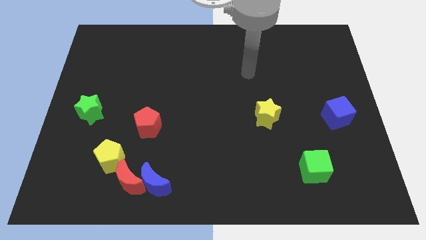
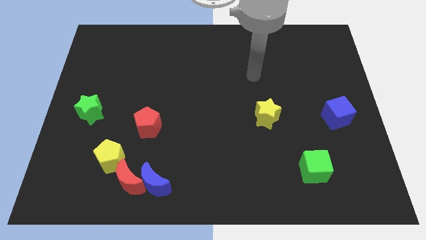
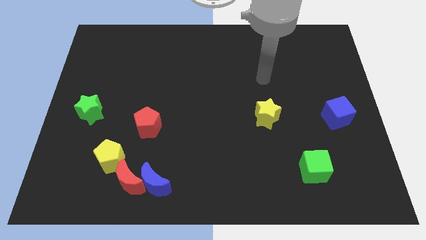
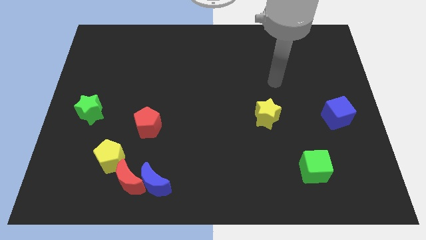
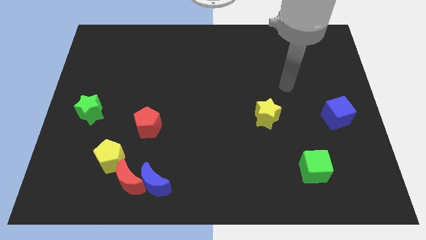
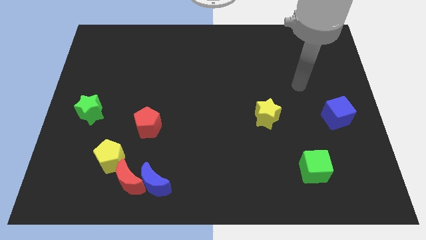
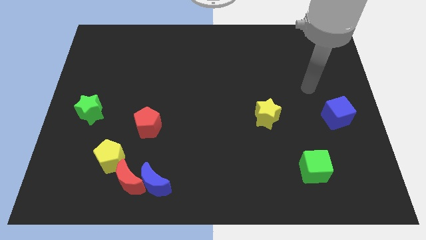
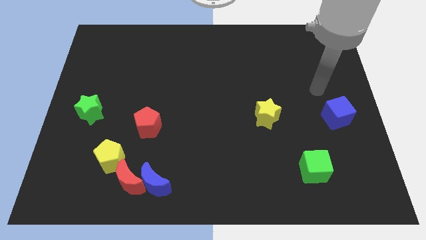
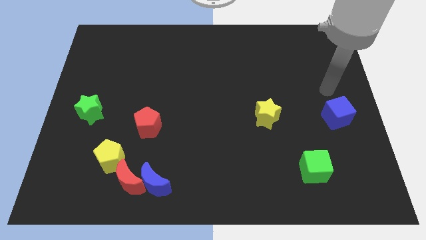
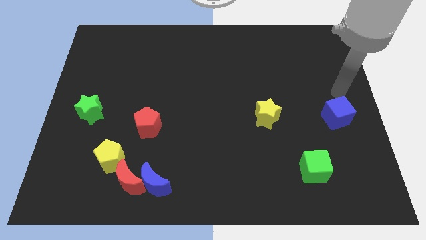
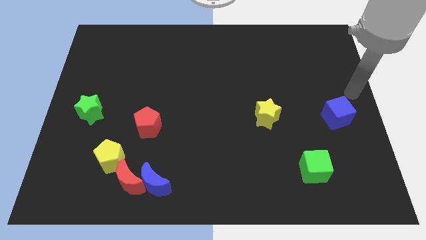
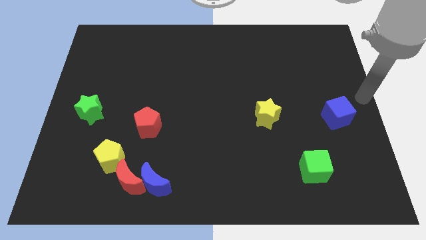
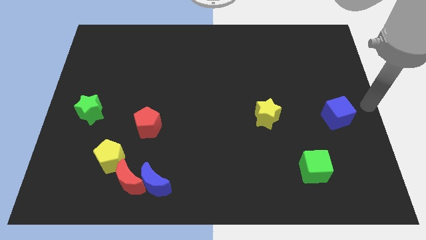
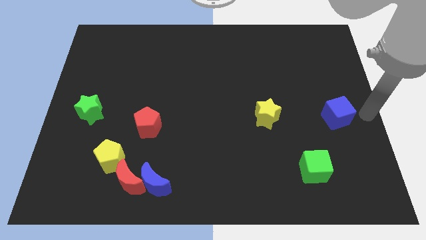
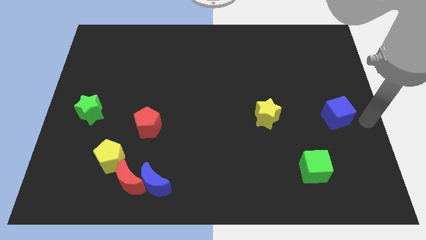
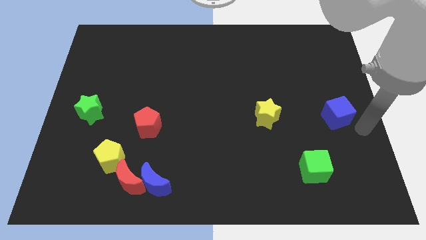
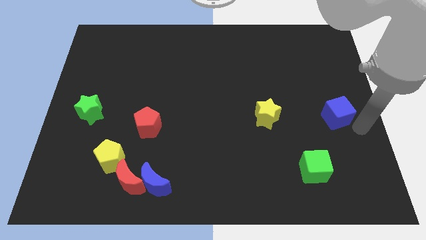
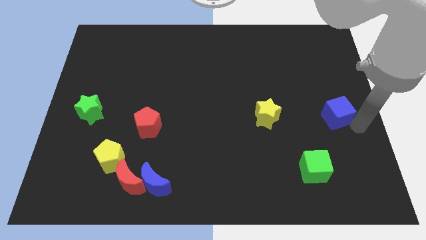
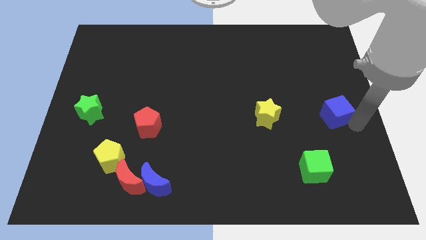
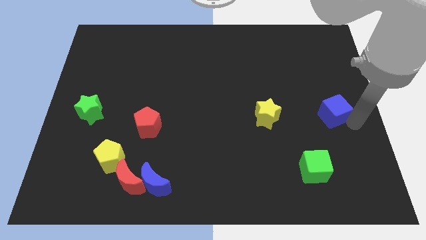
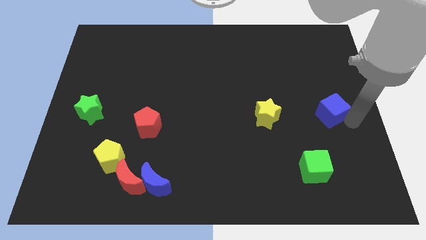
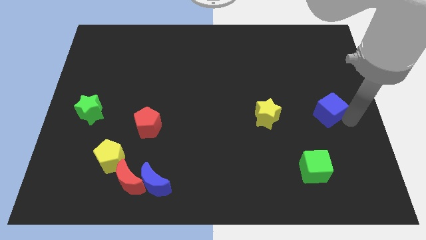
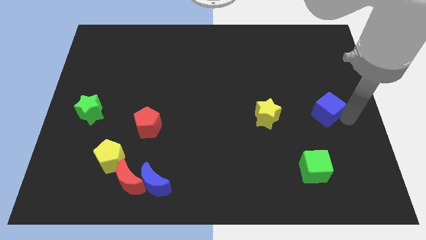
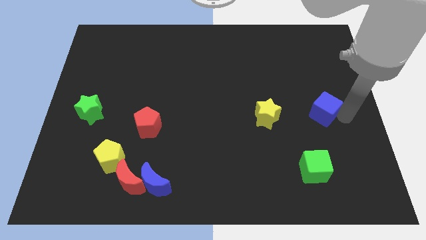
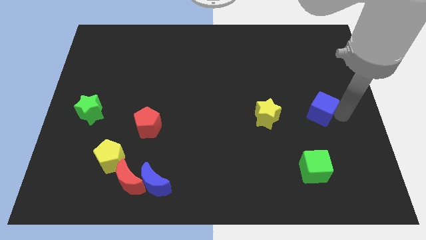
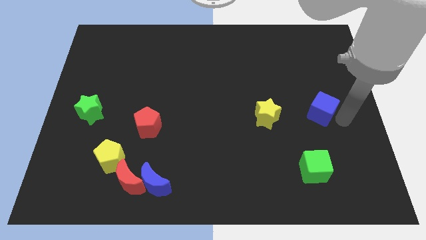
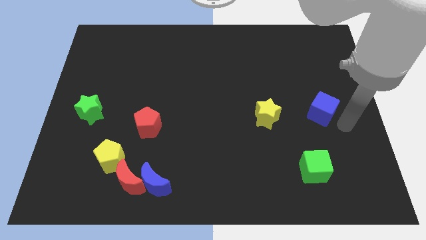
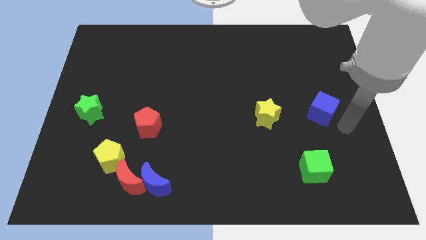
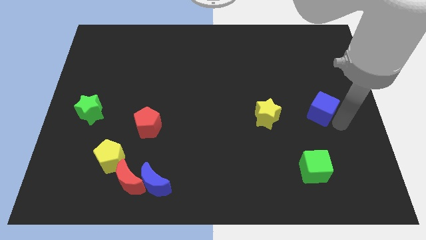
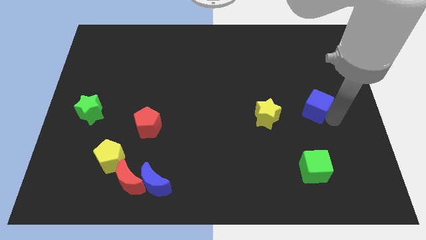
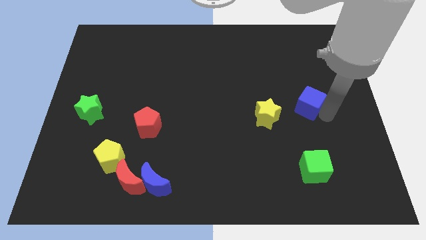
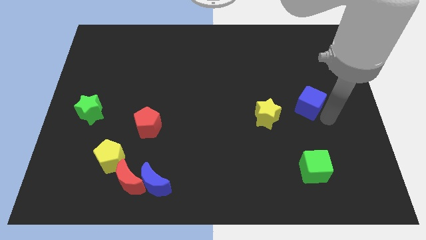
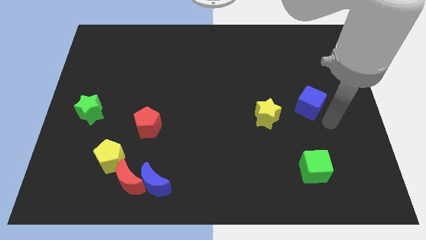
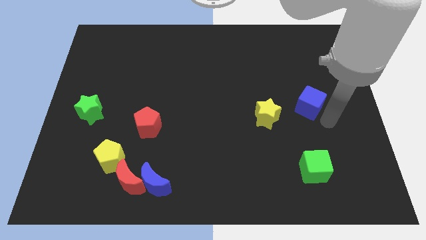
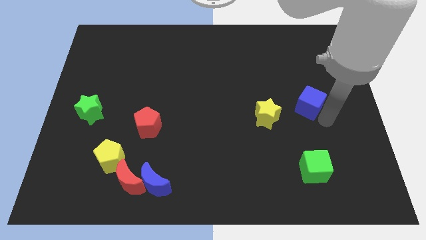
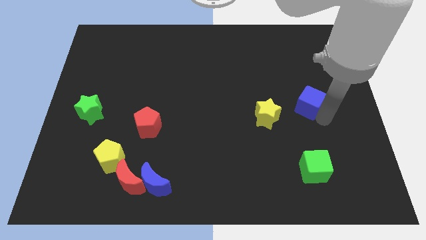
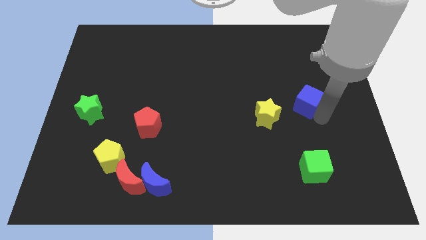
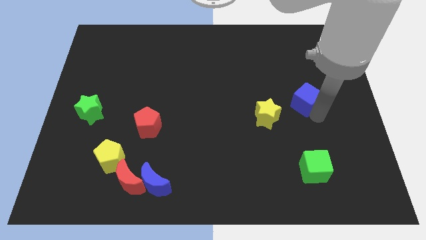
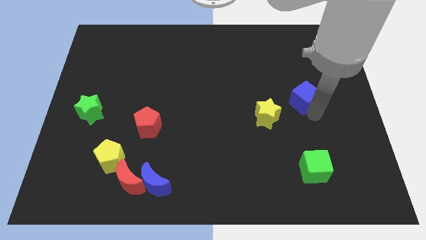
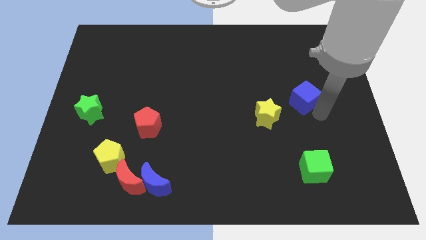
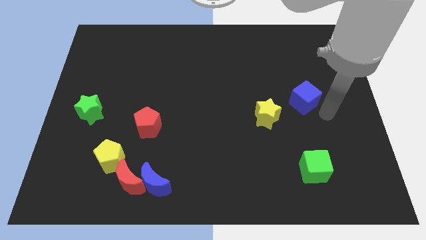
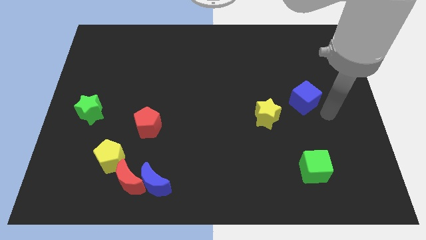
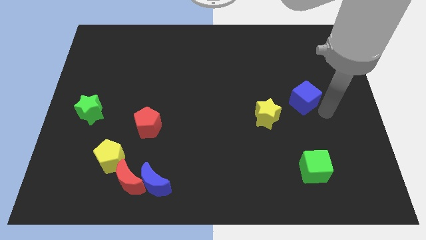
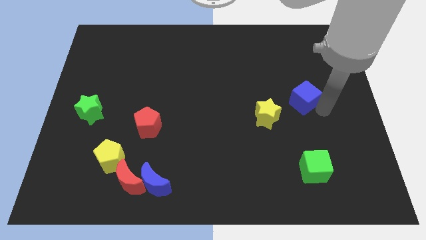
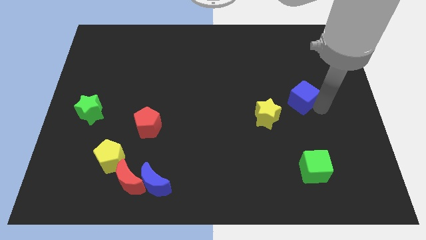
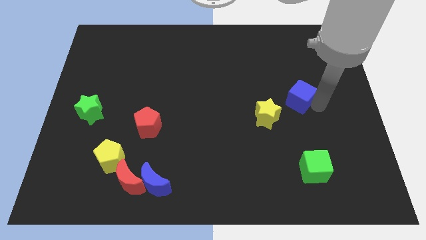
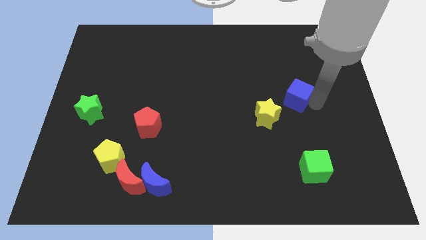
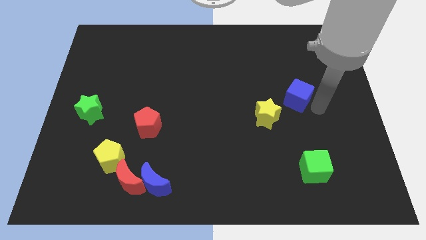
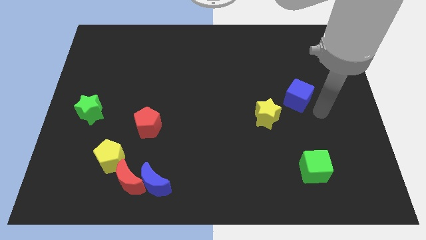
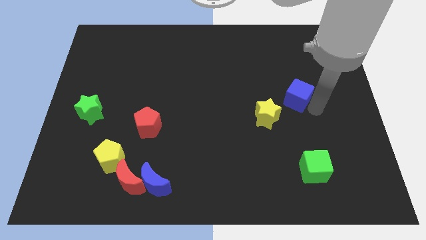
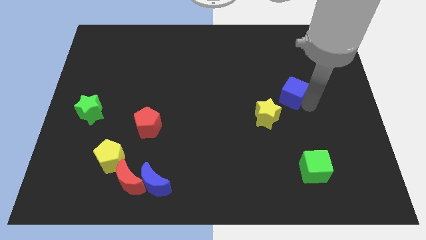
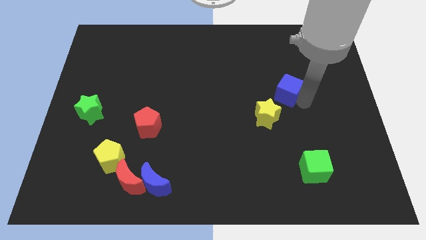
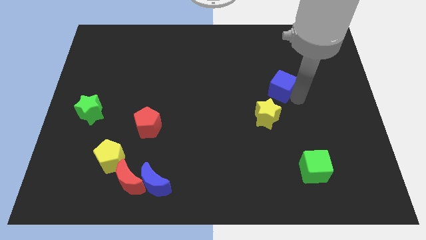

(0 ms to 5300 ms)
move the blue cube to the top side of the yellow star

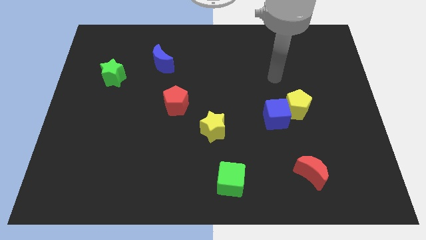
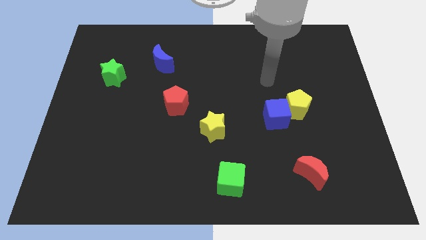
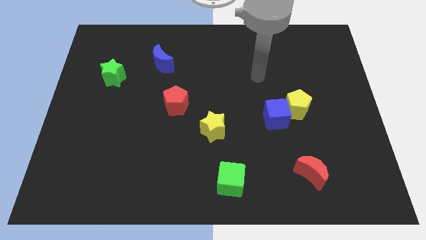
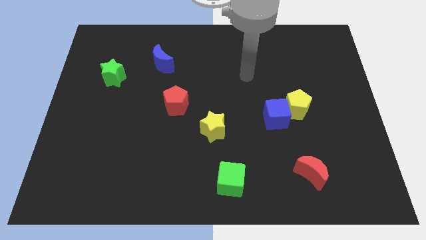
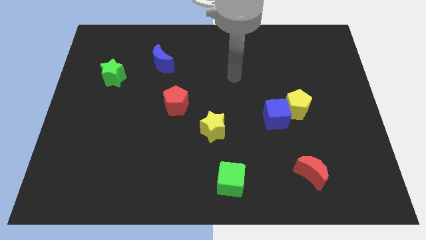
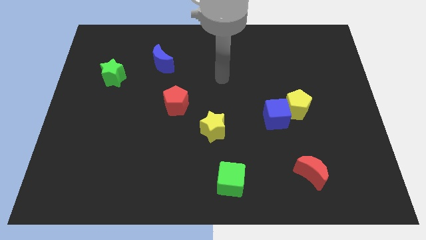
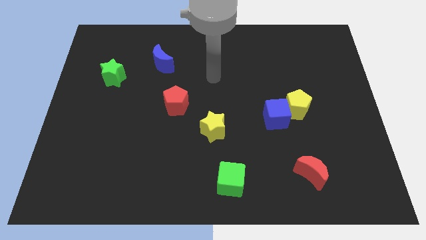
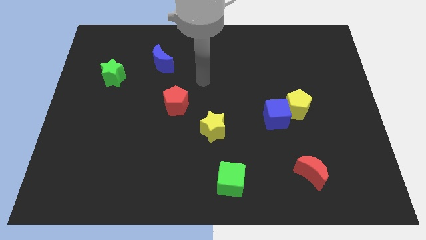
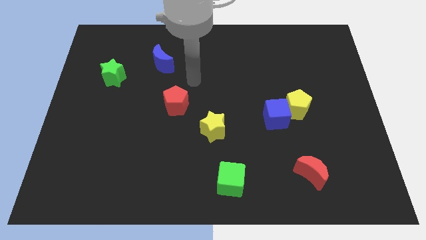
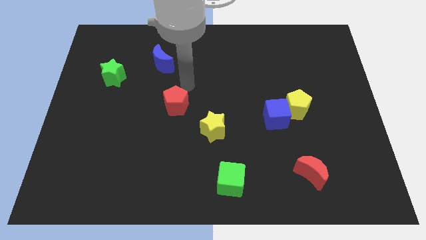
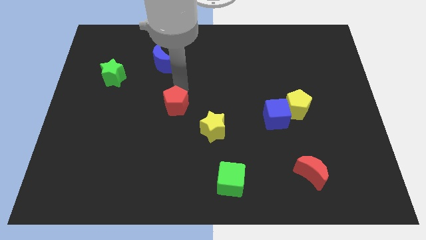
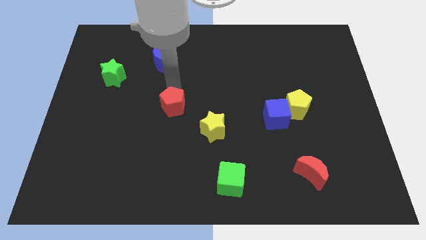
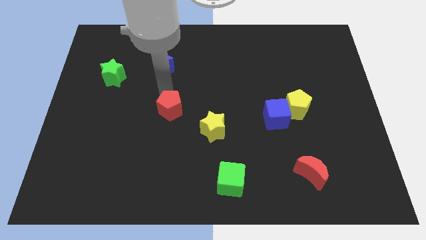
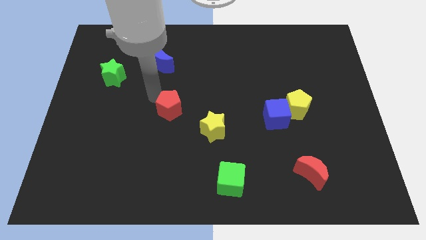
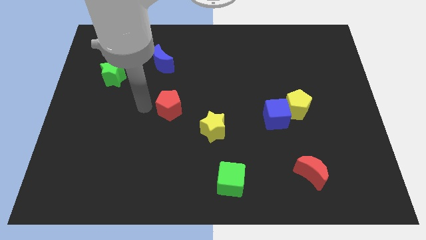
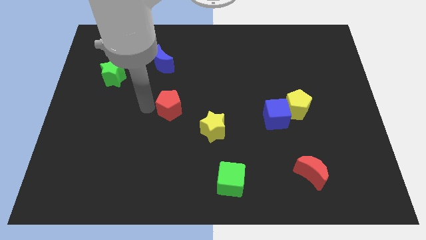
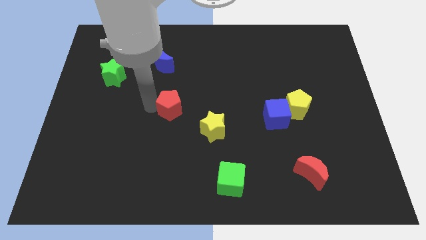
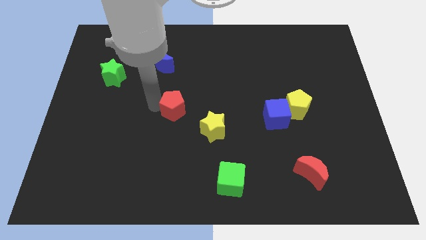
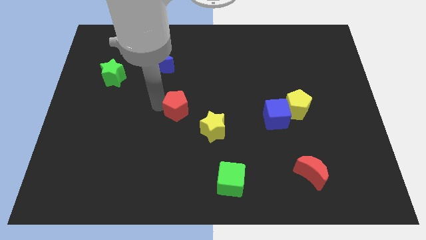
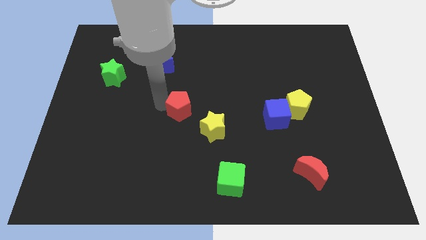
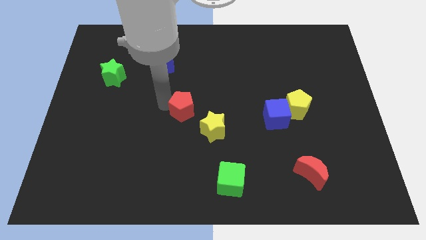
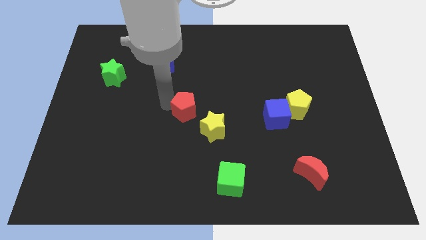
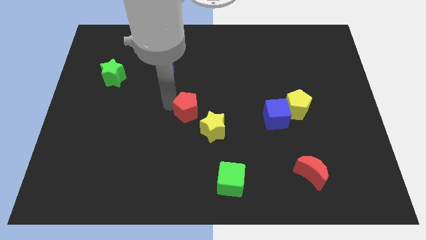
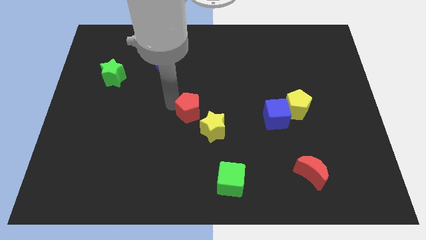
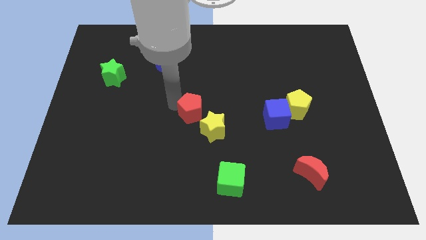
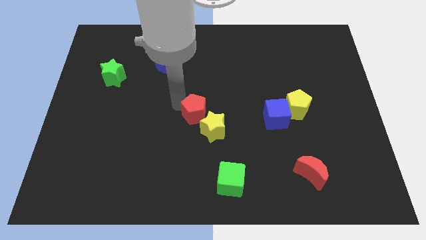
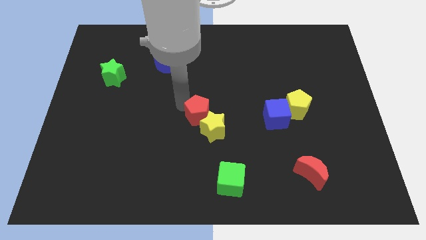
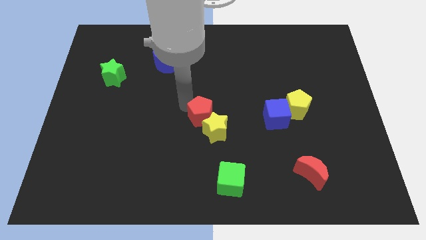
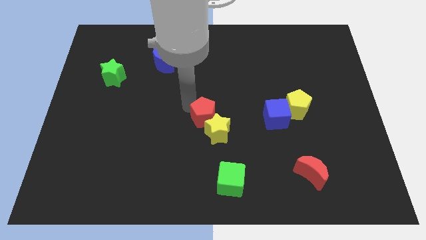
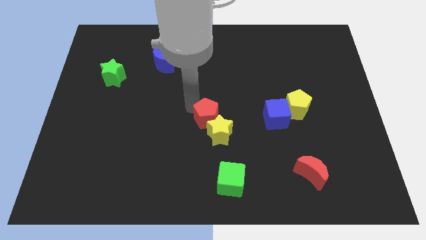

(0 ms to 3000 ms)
push the red pentagon left of the blue cube
